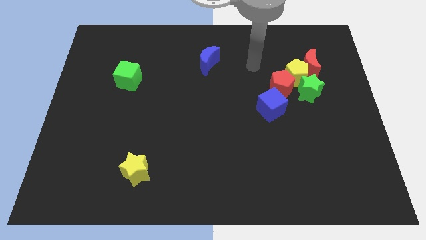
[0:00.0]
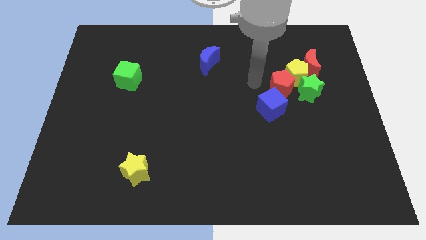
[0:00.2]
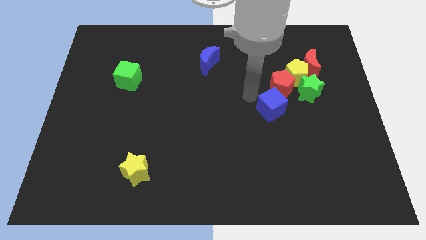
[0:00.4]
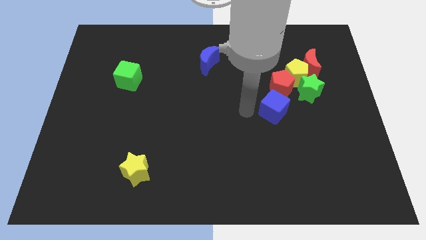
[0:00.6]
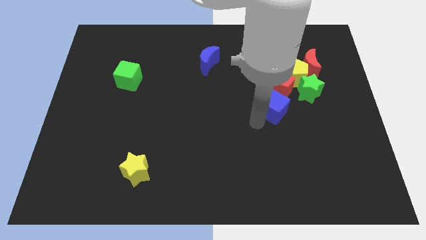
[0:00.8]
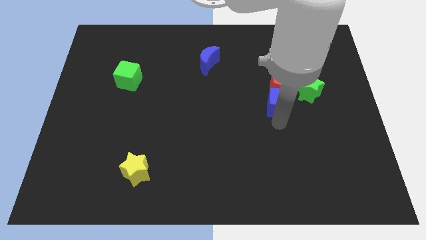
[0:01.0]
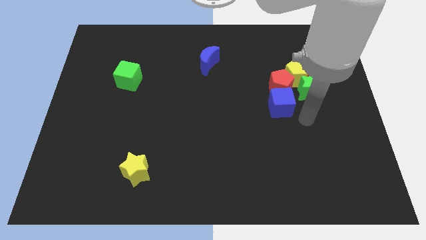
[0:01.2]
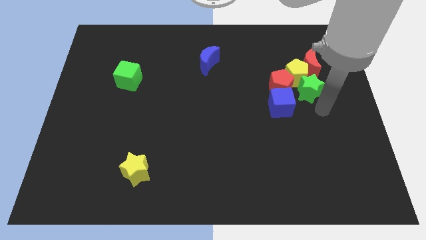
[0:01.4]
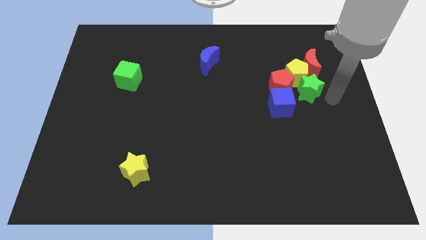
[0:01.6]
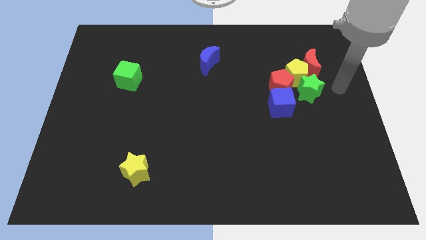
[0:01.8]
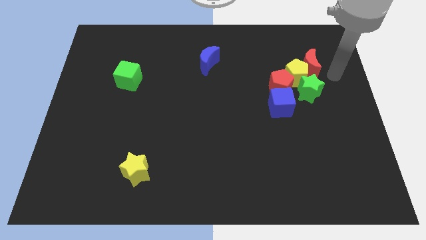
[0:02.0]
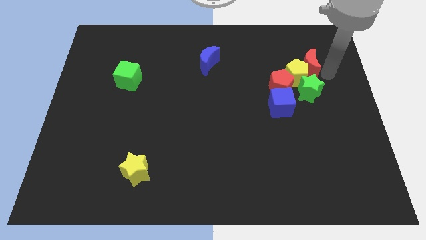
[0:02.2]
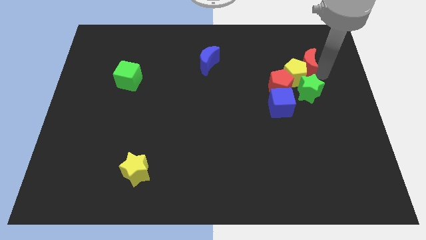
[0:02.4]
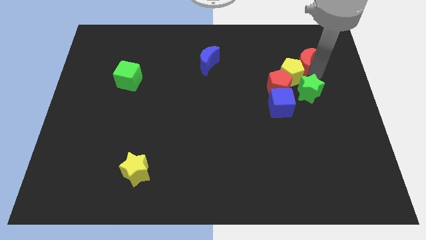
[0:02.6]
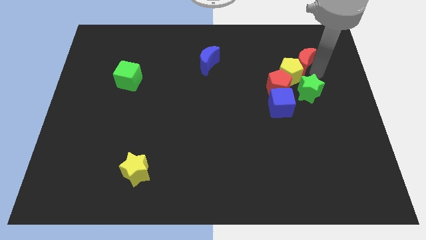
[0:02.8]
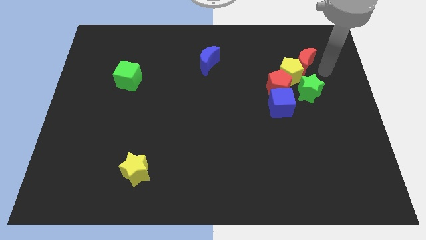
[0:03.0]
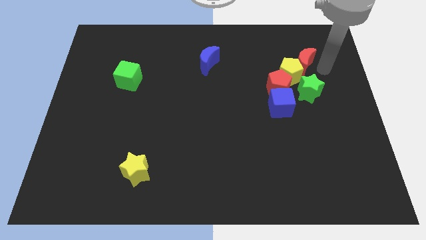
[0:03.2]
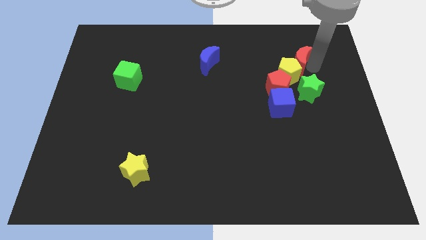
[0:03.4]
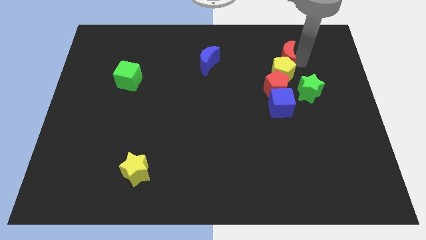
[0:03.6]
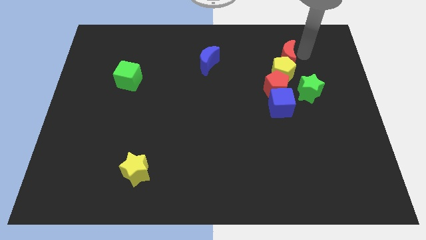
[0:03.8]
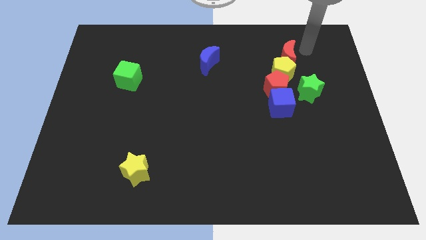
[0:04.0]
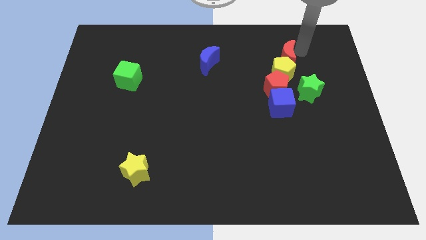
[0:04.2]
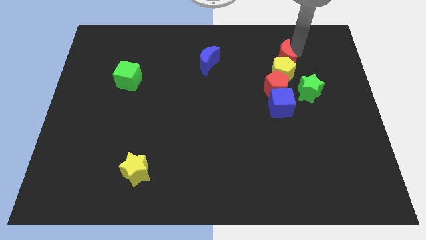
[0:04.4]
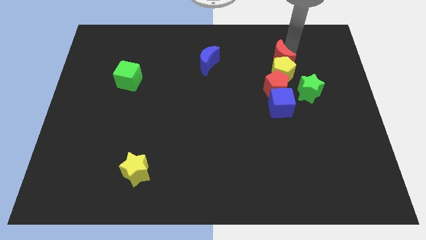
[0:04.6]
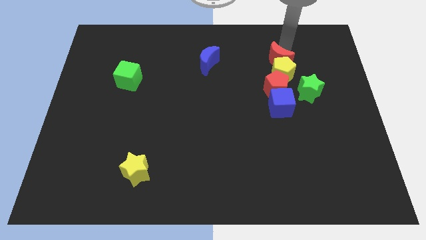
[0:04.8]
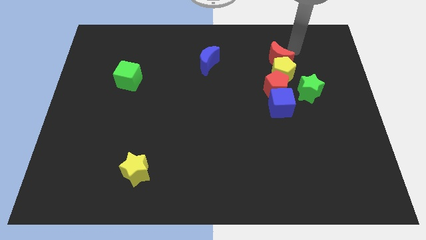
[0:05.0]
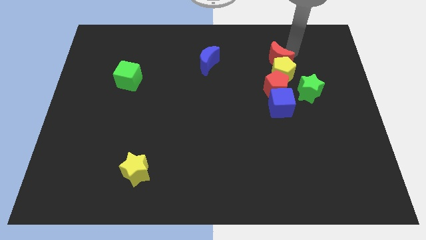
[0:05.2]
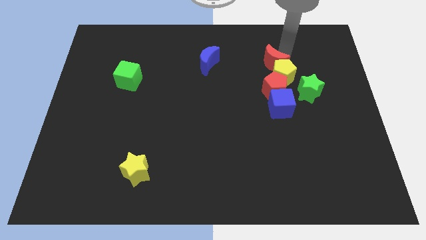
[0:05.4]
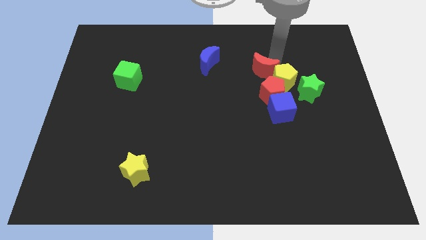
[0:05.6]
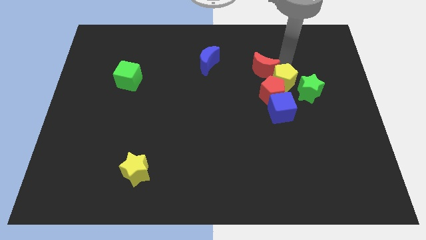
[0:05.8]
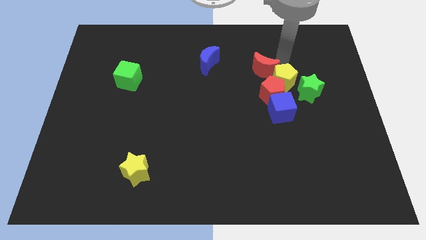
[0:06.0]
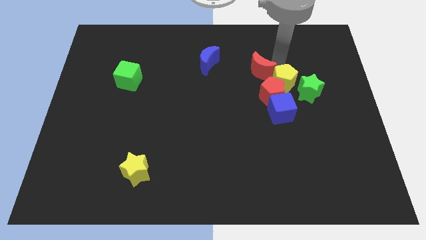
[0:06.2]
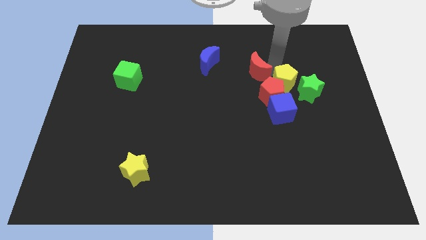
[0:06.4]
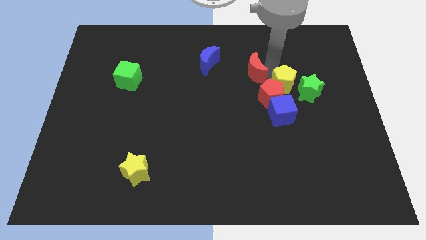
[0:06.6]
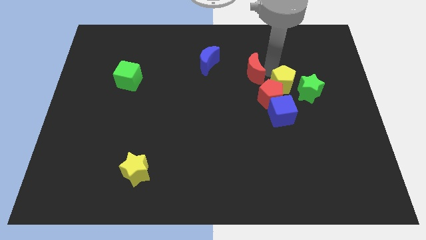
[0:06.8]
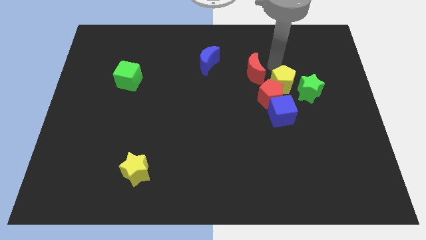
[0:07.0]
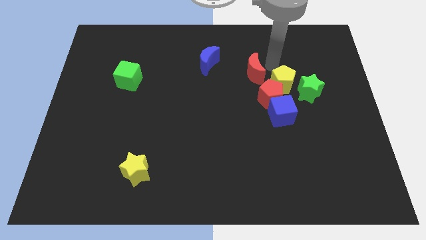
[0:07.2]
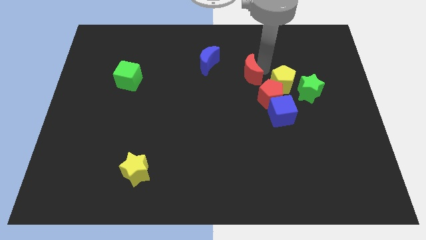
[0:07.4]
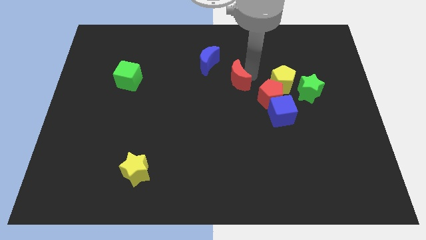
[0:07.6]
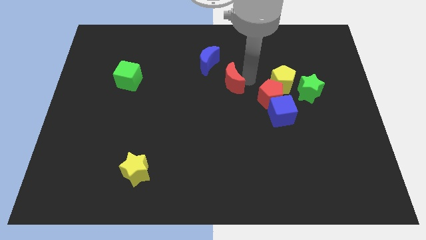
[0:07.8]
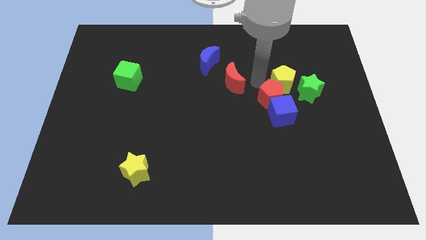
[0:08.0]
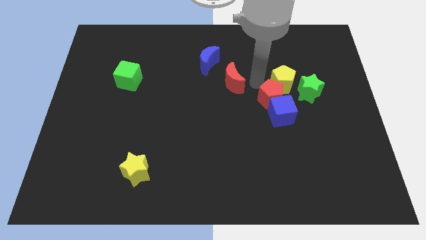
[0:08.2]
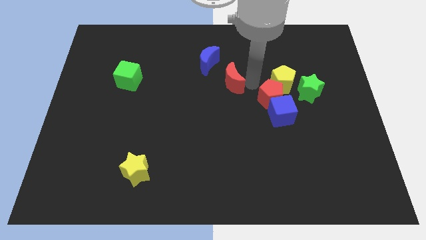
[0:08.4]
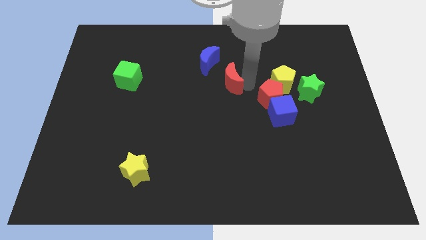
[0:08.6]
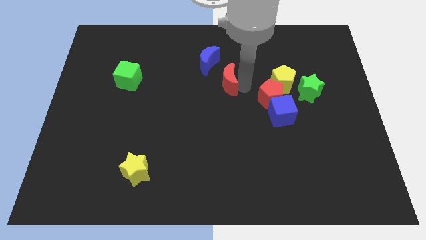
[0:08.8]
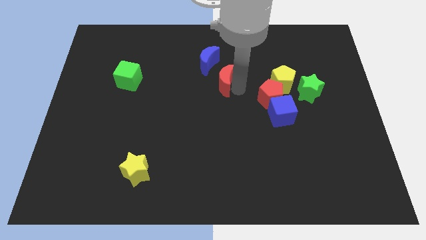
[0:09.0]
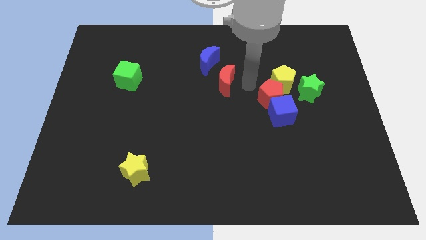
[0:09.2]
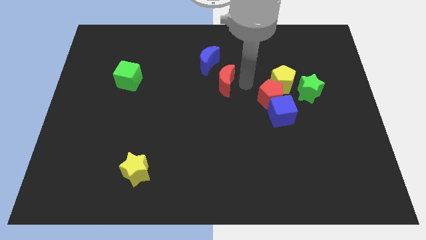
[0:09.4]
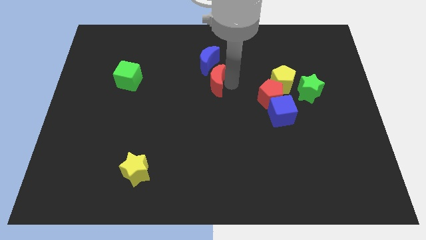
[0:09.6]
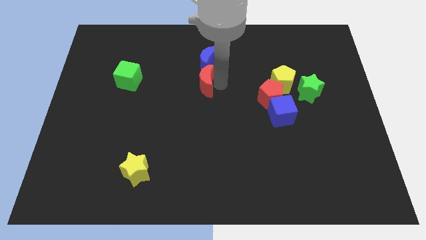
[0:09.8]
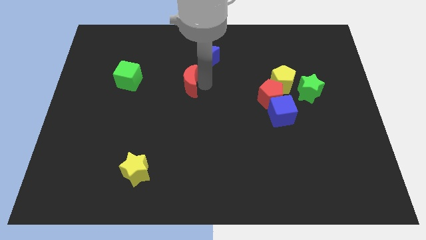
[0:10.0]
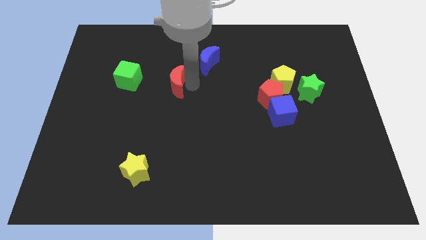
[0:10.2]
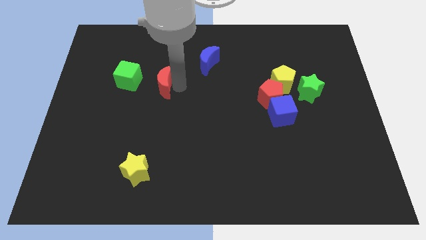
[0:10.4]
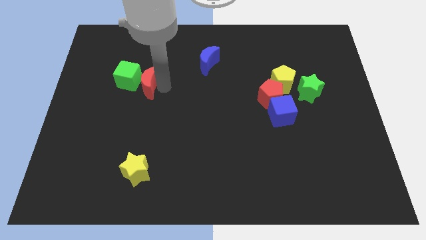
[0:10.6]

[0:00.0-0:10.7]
move the red moon towards the green cube

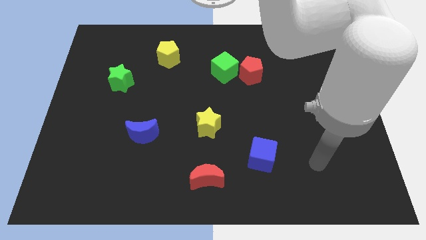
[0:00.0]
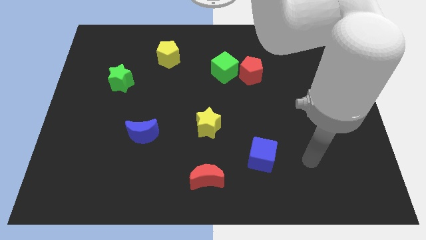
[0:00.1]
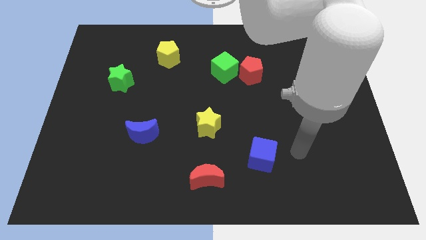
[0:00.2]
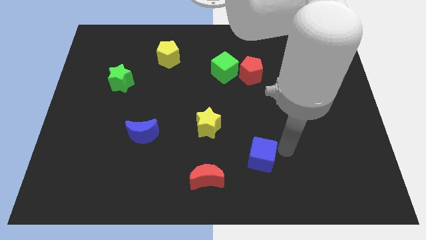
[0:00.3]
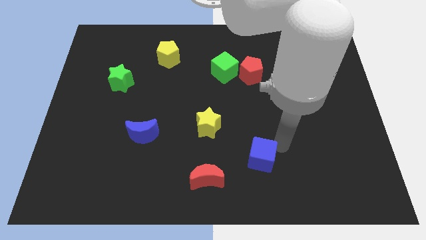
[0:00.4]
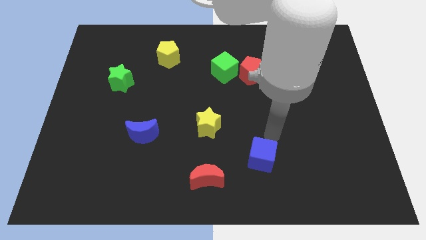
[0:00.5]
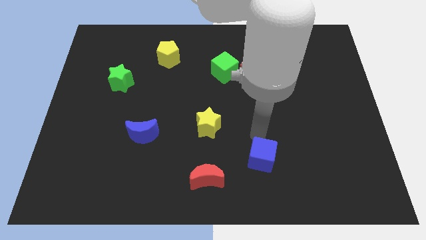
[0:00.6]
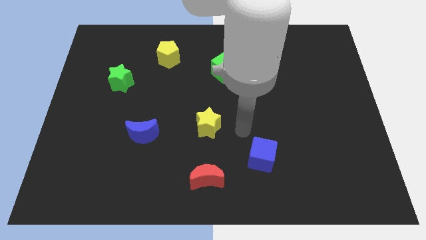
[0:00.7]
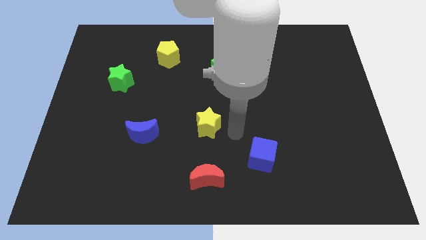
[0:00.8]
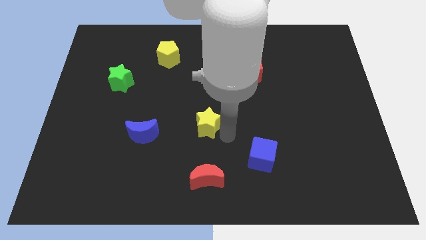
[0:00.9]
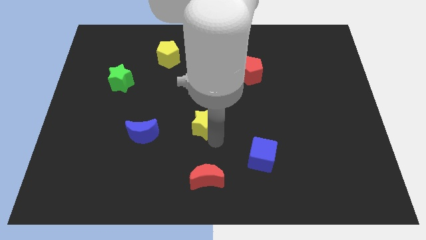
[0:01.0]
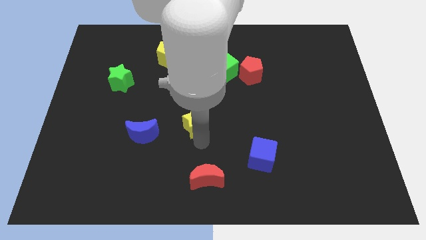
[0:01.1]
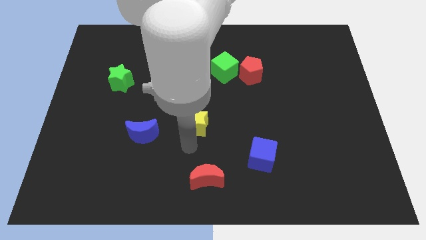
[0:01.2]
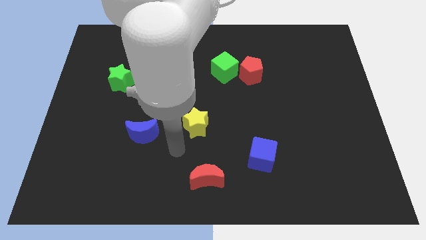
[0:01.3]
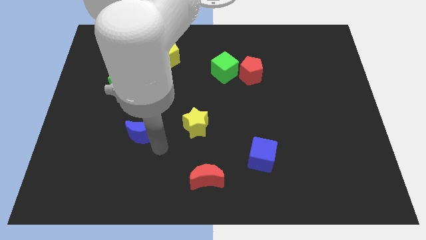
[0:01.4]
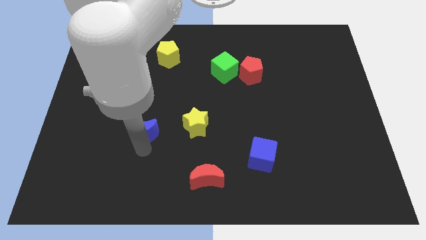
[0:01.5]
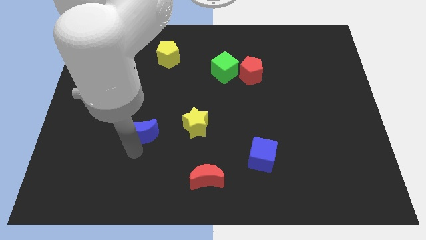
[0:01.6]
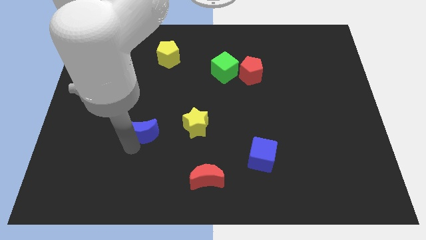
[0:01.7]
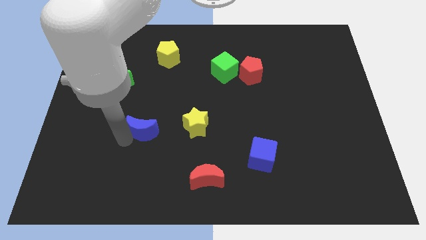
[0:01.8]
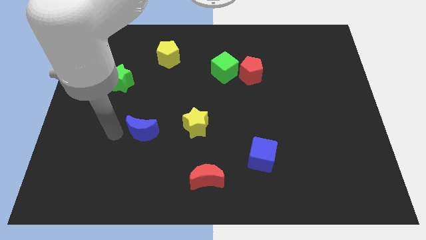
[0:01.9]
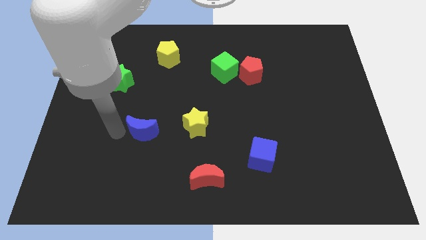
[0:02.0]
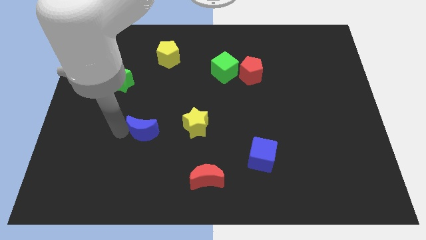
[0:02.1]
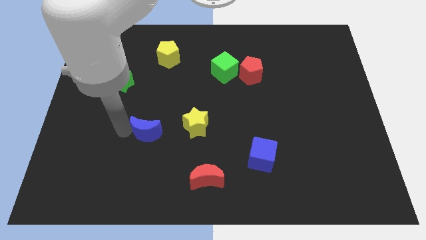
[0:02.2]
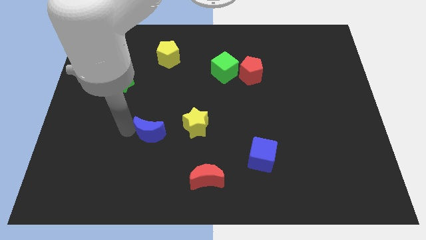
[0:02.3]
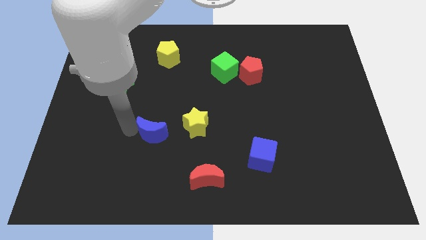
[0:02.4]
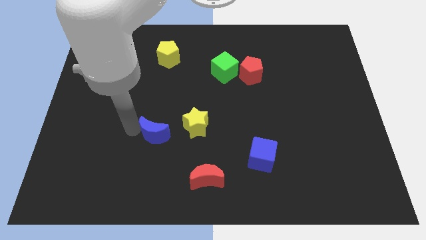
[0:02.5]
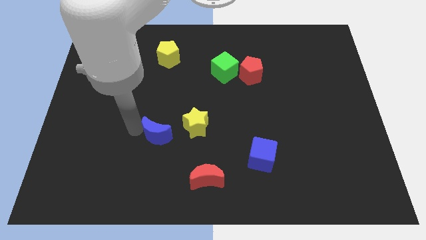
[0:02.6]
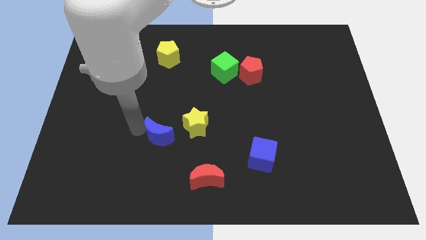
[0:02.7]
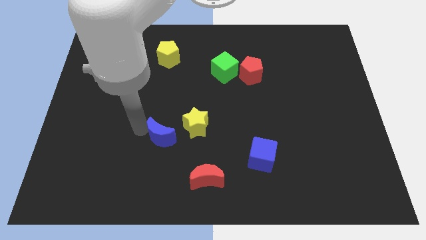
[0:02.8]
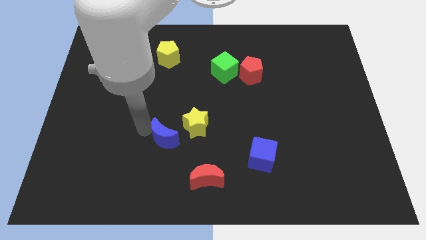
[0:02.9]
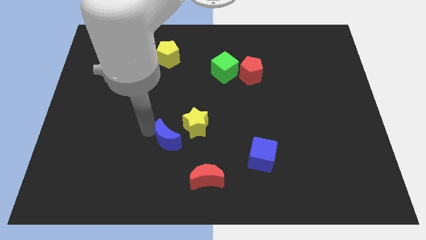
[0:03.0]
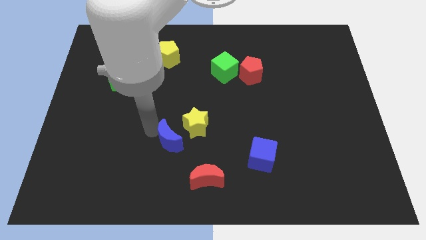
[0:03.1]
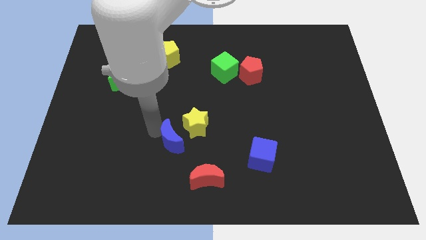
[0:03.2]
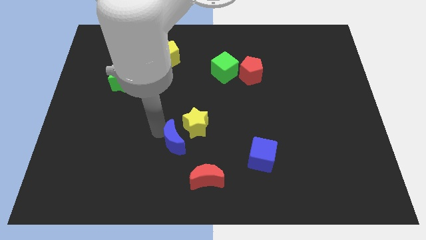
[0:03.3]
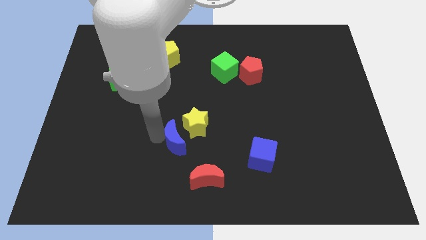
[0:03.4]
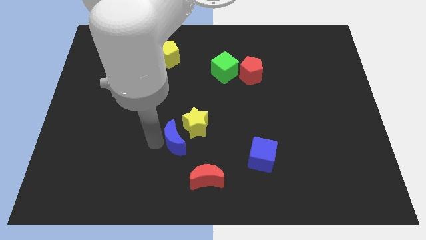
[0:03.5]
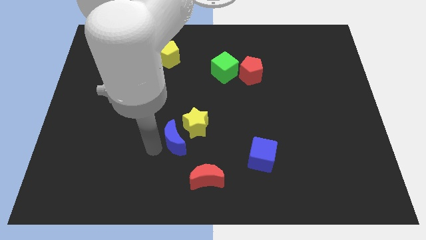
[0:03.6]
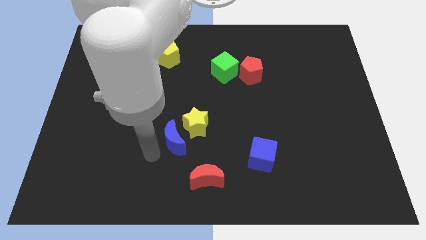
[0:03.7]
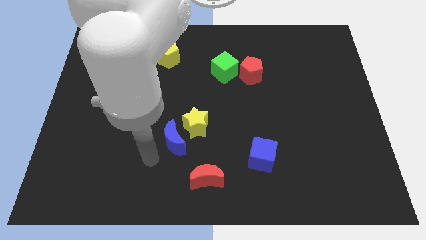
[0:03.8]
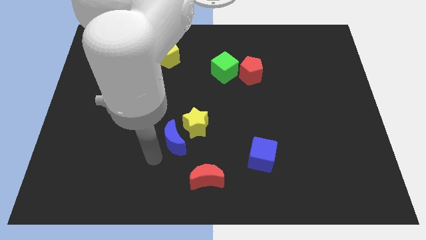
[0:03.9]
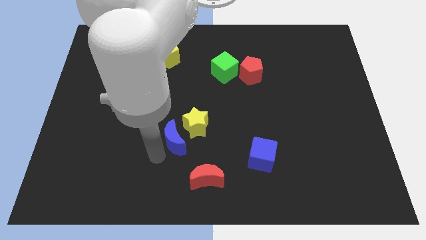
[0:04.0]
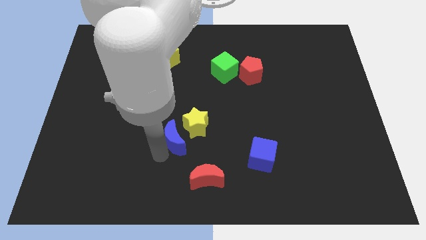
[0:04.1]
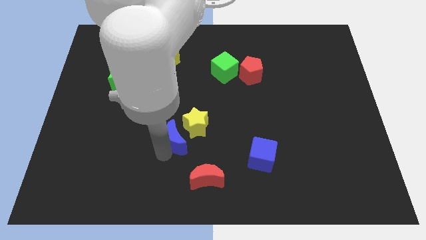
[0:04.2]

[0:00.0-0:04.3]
move the blue moon to the yellow star
